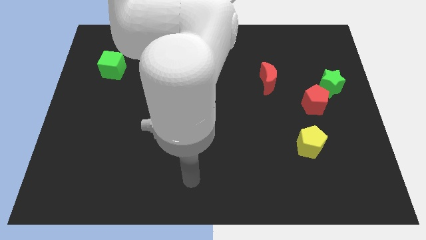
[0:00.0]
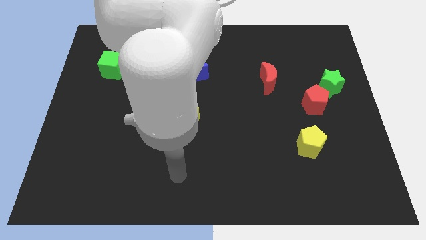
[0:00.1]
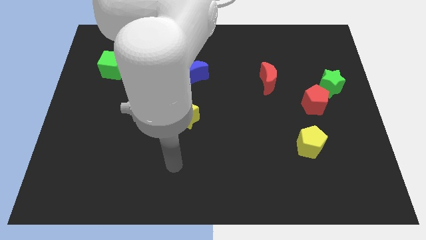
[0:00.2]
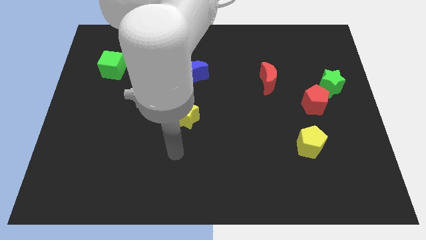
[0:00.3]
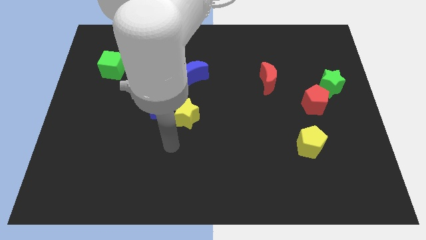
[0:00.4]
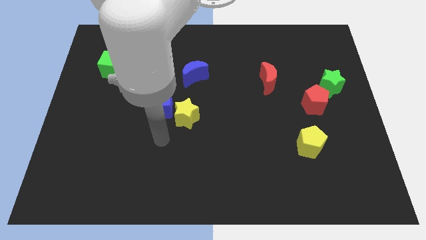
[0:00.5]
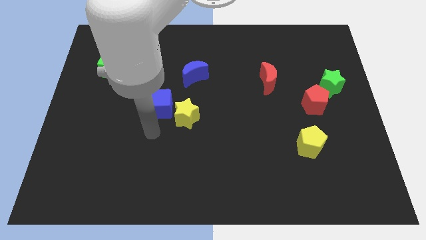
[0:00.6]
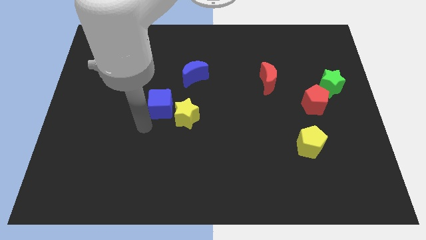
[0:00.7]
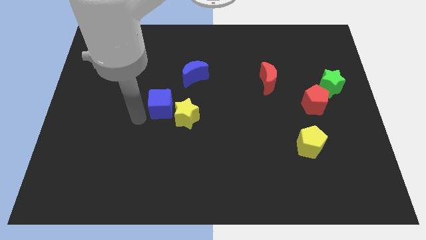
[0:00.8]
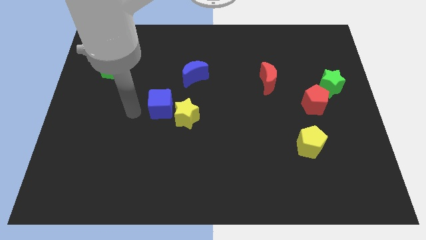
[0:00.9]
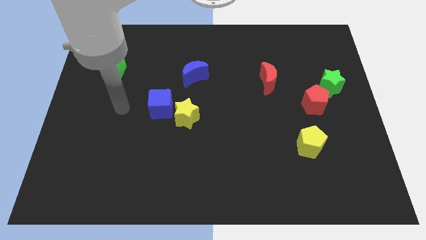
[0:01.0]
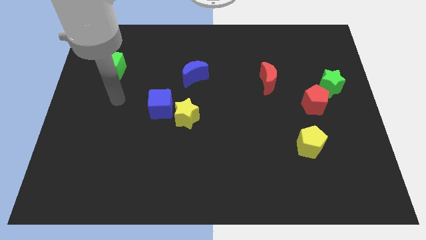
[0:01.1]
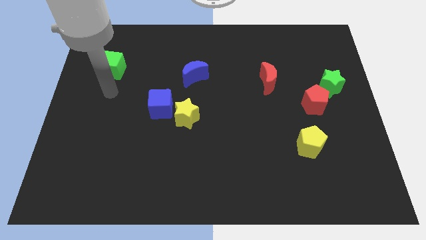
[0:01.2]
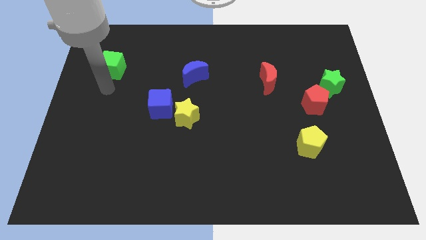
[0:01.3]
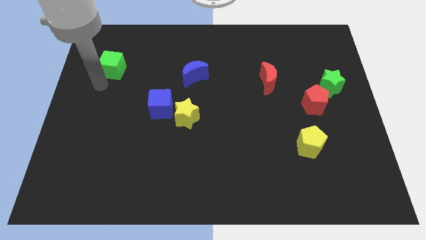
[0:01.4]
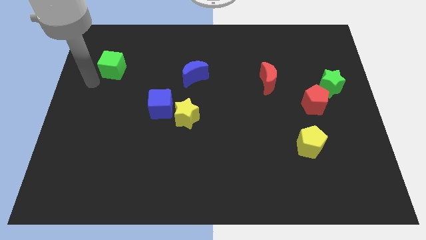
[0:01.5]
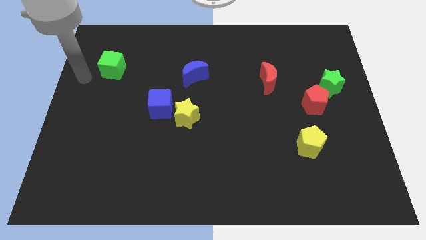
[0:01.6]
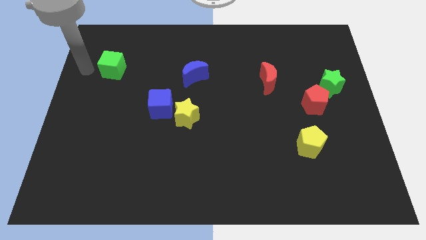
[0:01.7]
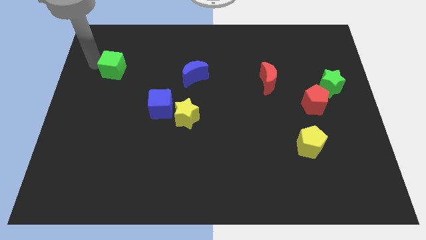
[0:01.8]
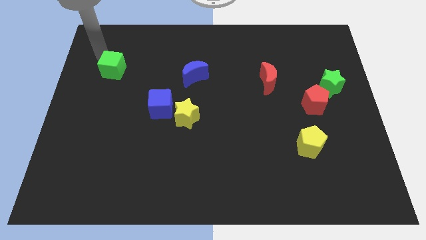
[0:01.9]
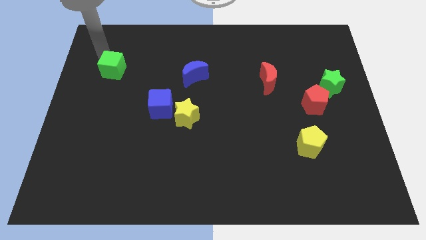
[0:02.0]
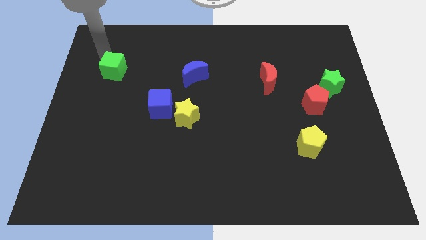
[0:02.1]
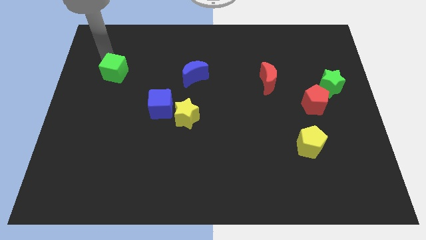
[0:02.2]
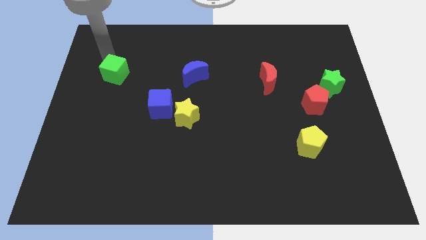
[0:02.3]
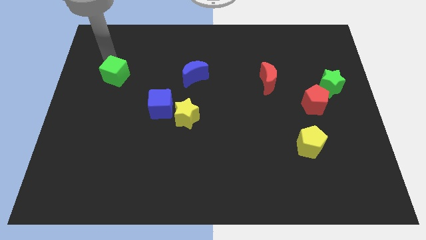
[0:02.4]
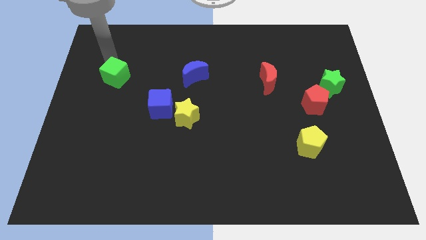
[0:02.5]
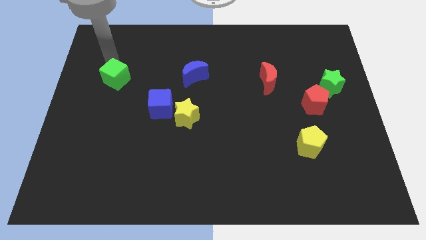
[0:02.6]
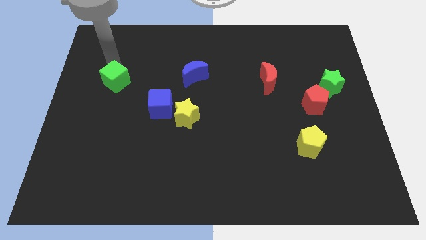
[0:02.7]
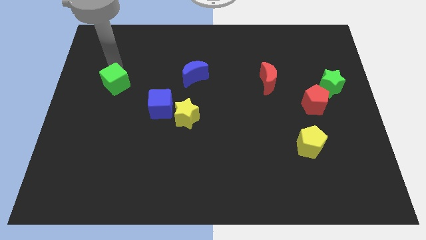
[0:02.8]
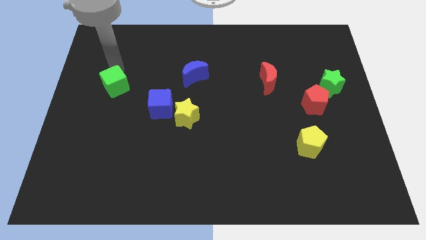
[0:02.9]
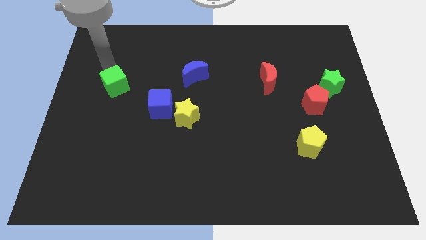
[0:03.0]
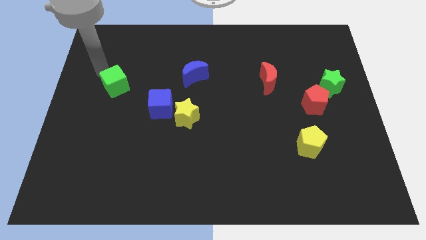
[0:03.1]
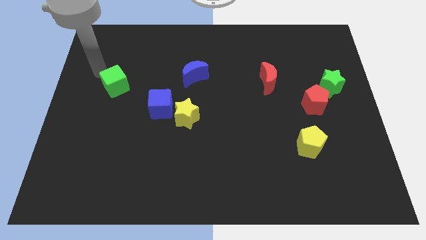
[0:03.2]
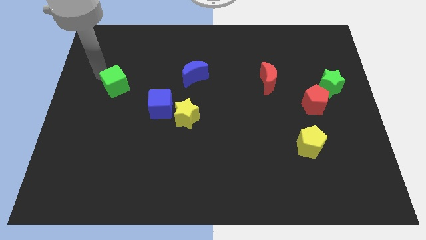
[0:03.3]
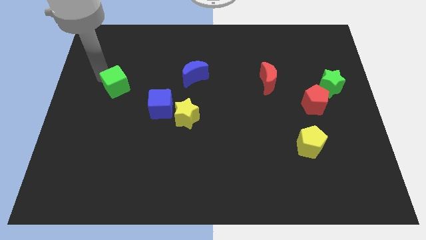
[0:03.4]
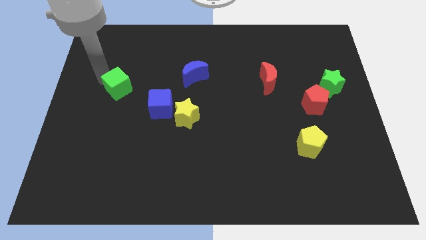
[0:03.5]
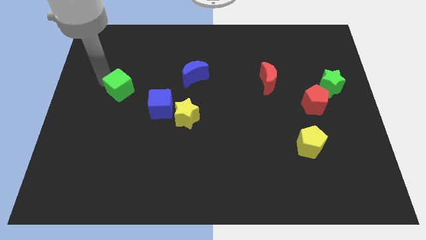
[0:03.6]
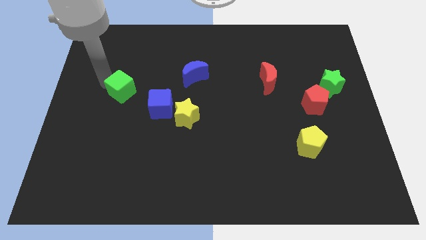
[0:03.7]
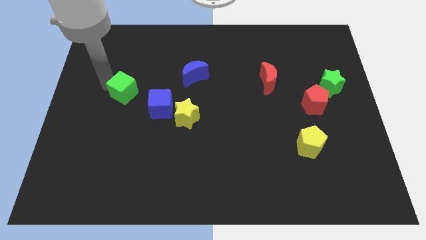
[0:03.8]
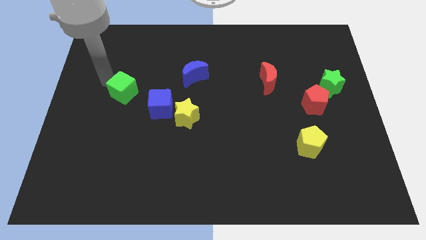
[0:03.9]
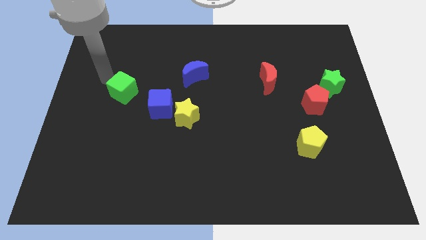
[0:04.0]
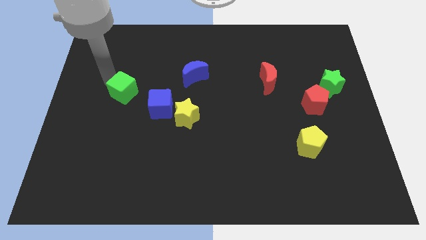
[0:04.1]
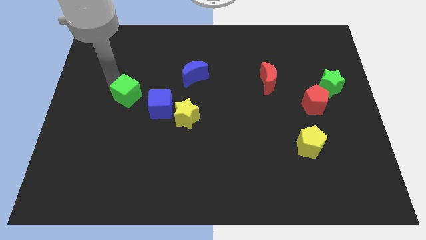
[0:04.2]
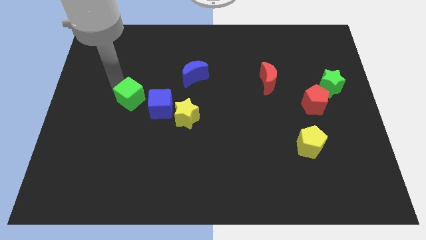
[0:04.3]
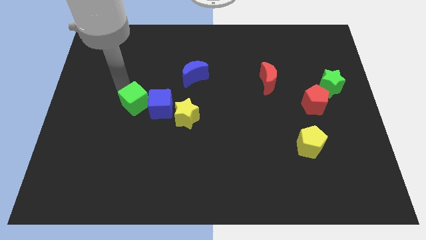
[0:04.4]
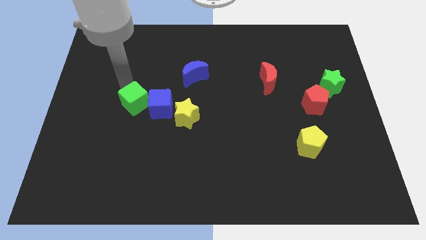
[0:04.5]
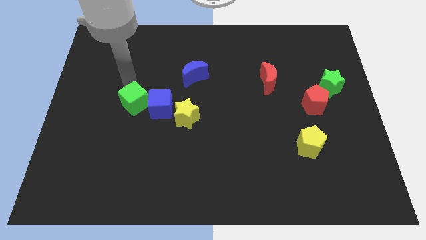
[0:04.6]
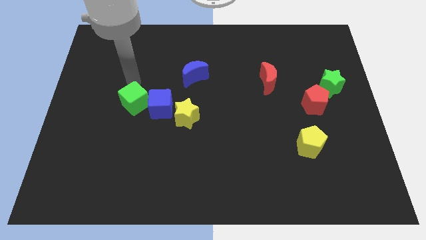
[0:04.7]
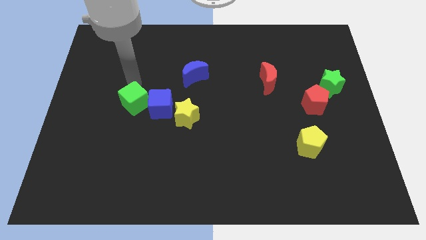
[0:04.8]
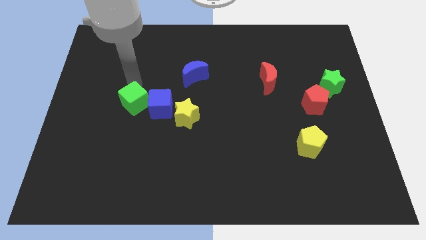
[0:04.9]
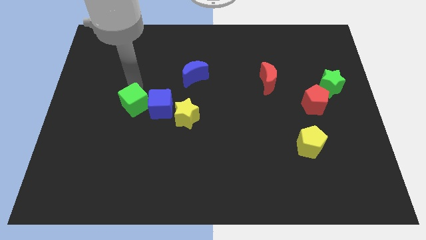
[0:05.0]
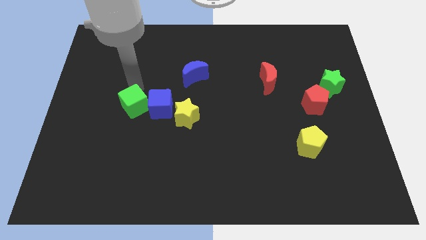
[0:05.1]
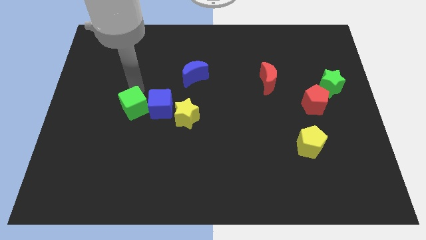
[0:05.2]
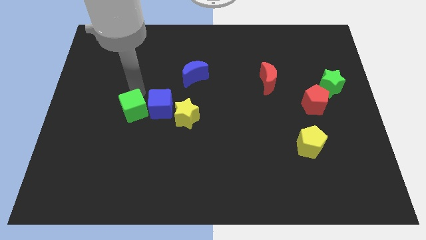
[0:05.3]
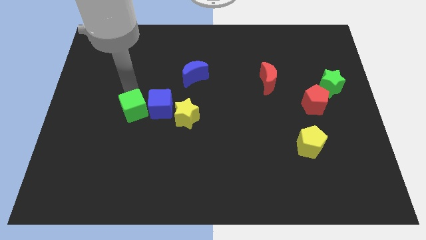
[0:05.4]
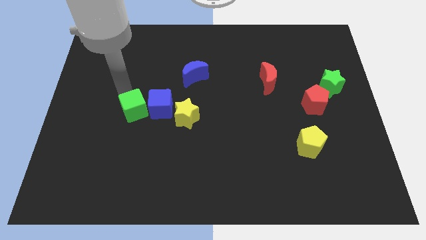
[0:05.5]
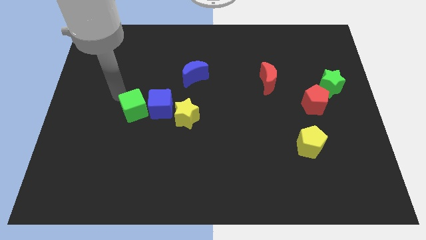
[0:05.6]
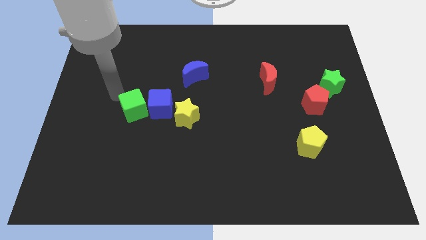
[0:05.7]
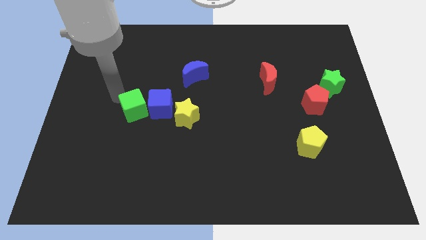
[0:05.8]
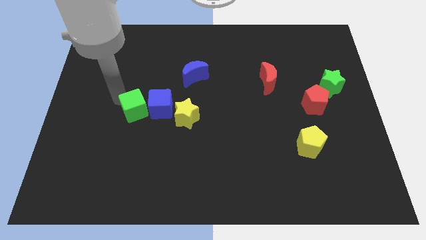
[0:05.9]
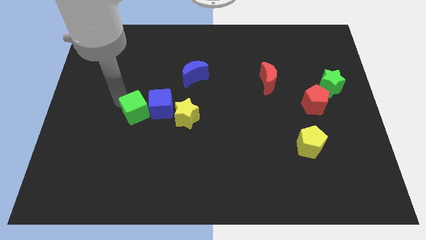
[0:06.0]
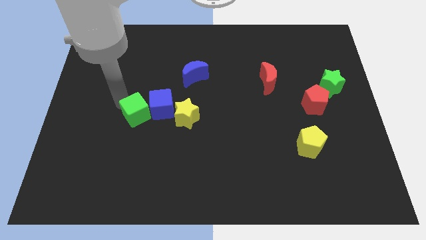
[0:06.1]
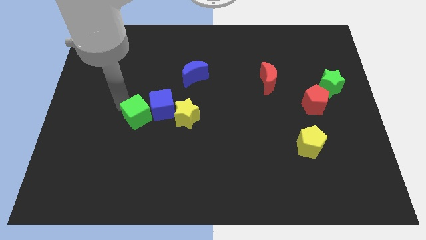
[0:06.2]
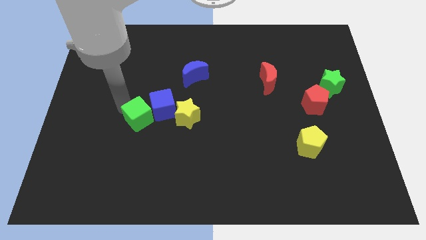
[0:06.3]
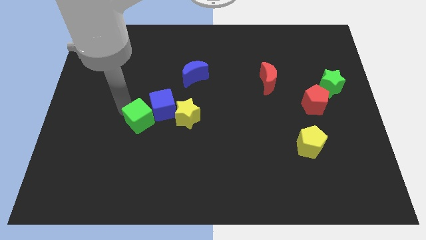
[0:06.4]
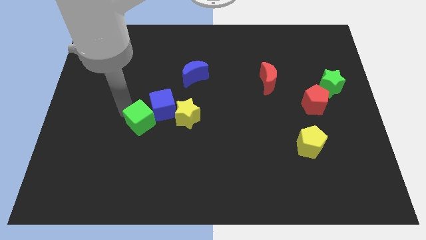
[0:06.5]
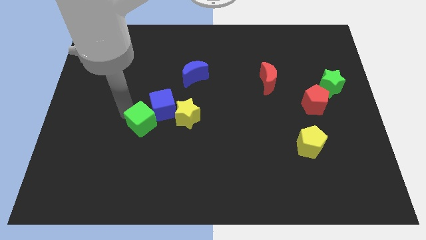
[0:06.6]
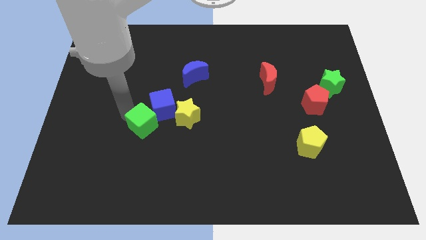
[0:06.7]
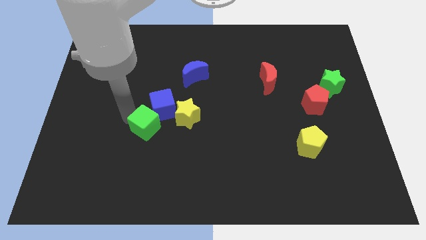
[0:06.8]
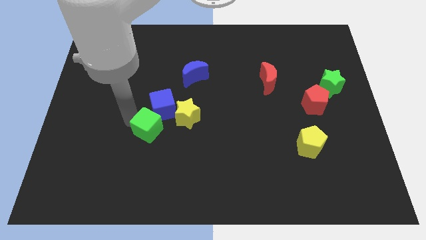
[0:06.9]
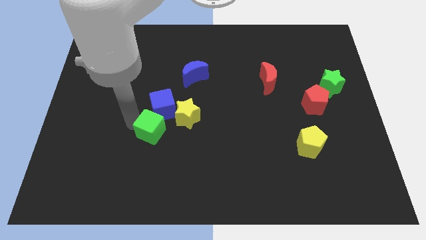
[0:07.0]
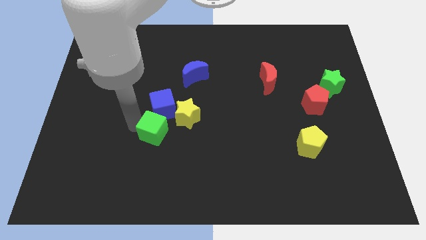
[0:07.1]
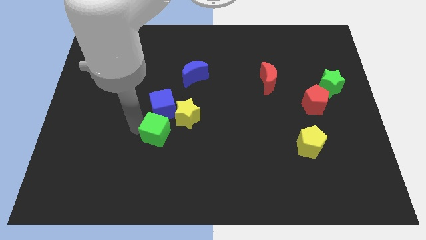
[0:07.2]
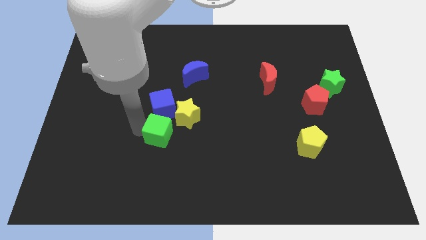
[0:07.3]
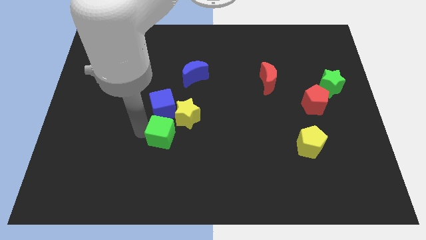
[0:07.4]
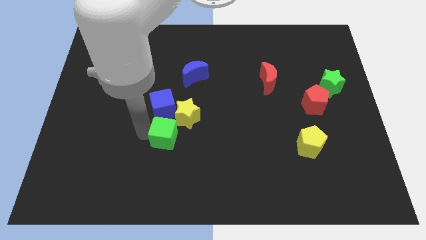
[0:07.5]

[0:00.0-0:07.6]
push the green cube diagonally down and to the right of the blue cube

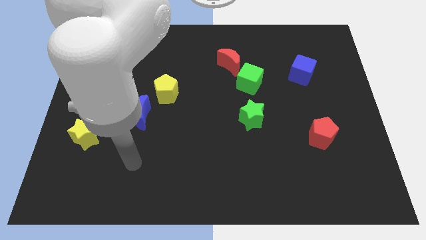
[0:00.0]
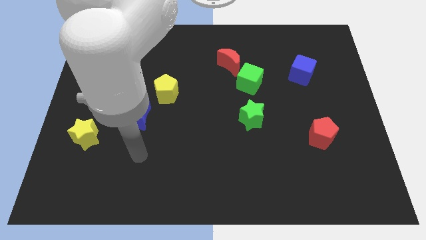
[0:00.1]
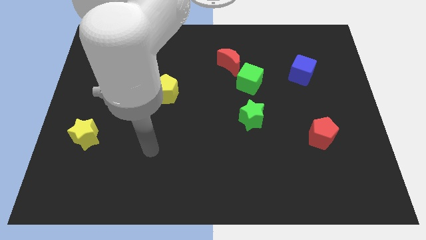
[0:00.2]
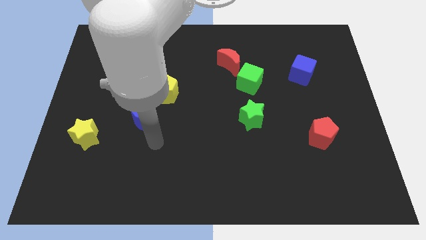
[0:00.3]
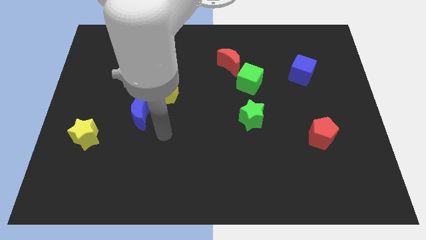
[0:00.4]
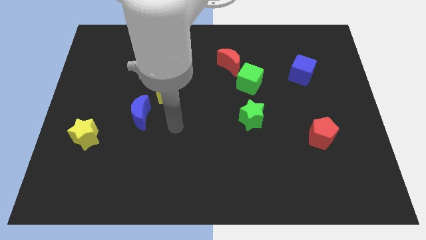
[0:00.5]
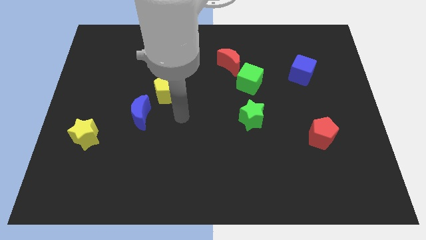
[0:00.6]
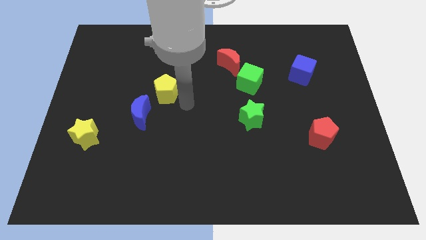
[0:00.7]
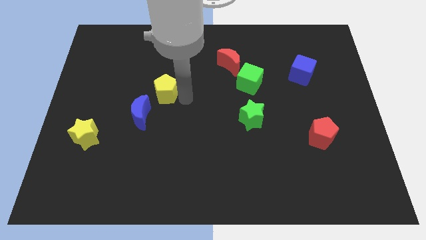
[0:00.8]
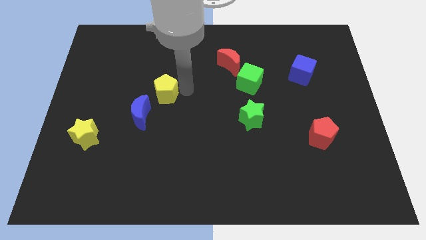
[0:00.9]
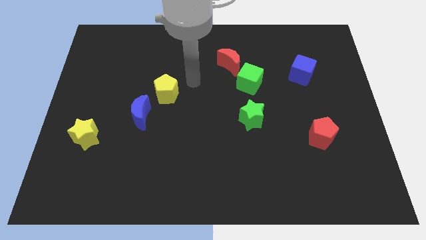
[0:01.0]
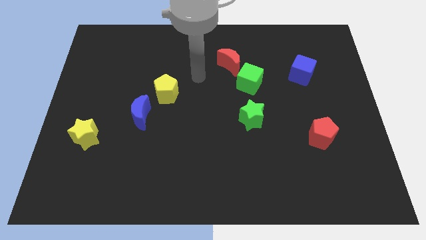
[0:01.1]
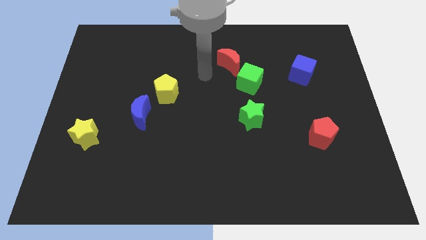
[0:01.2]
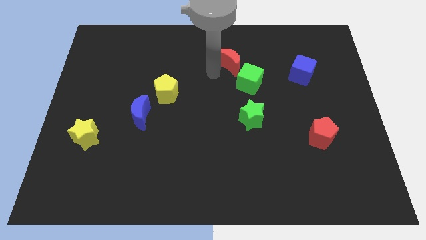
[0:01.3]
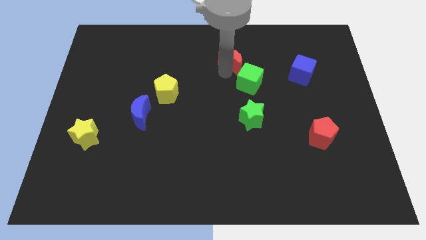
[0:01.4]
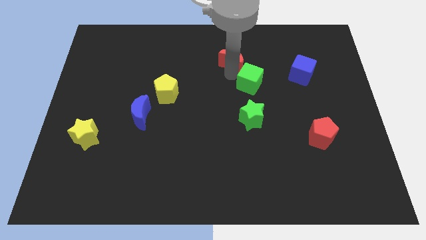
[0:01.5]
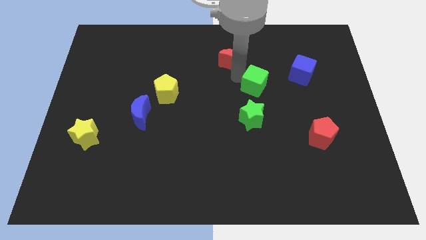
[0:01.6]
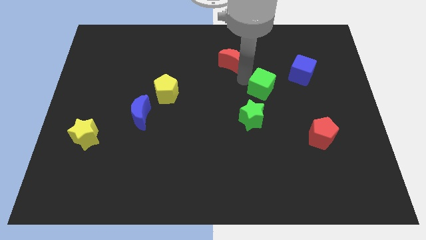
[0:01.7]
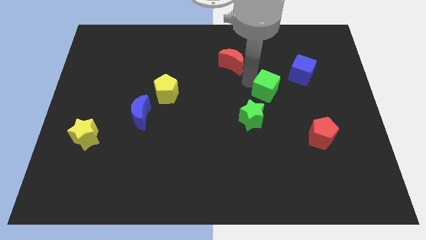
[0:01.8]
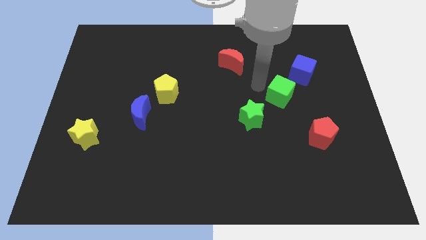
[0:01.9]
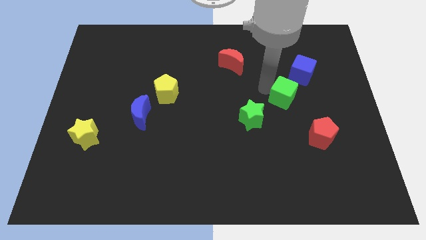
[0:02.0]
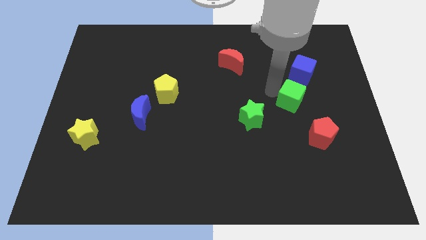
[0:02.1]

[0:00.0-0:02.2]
slide the green cube to the bottom of the blue cube
